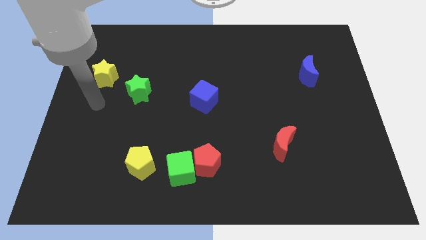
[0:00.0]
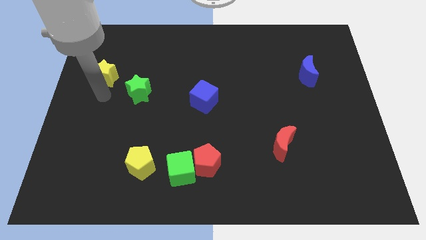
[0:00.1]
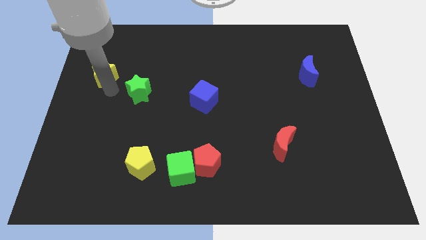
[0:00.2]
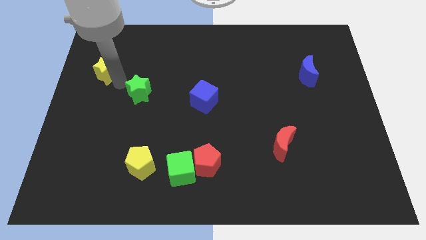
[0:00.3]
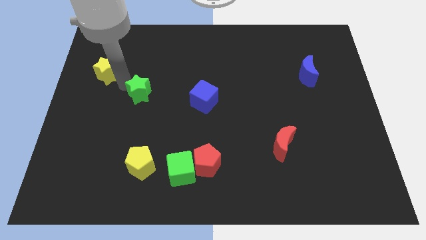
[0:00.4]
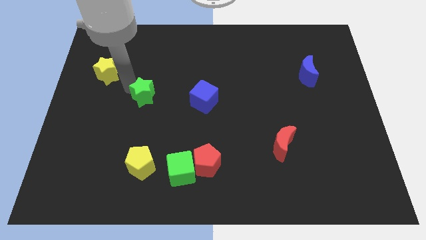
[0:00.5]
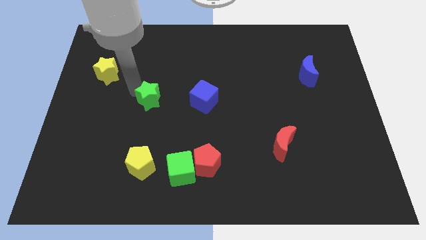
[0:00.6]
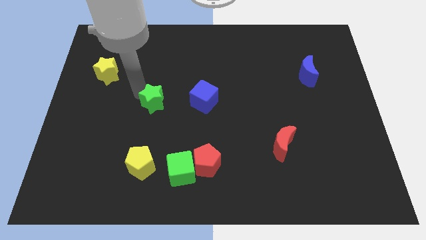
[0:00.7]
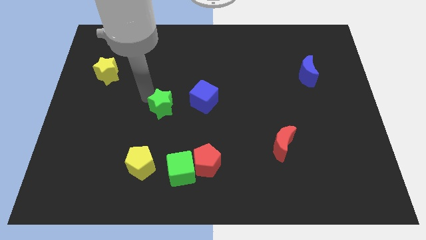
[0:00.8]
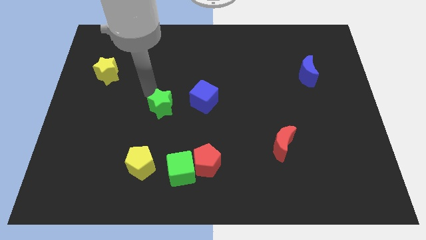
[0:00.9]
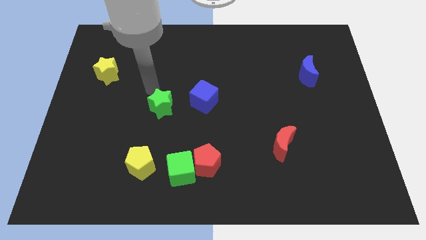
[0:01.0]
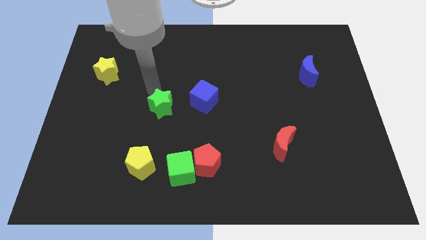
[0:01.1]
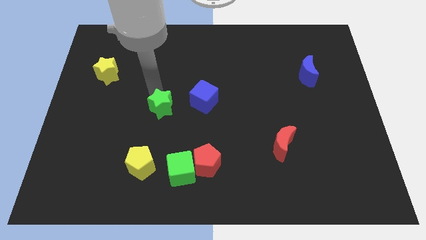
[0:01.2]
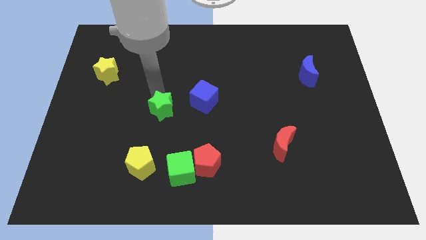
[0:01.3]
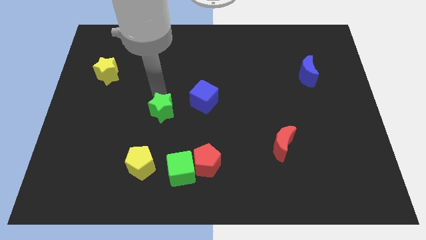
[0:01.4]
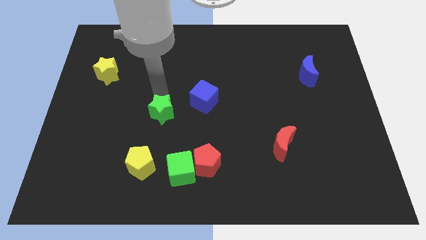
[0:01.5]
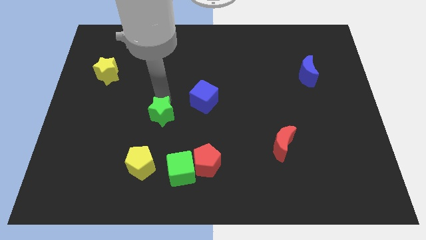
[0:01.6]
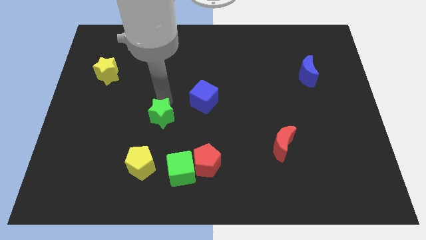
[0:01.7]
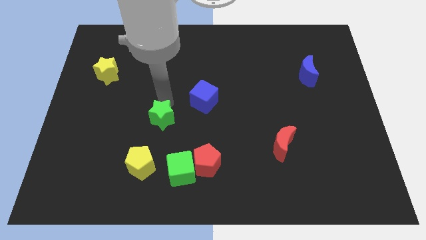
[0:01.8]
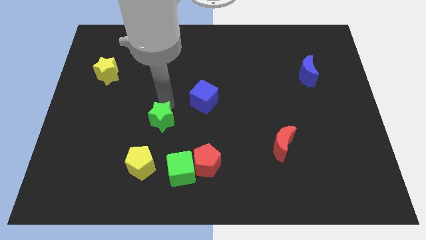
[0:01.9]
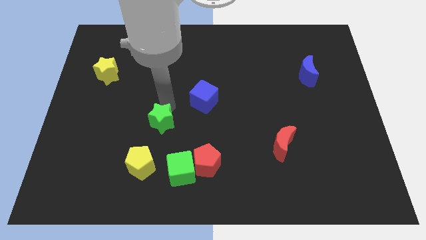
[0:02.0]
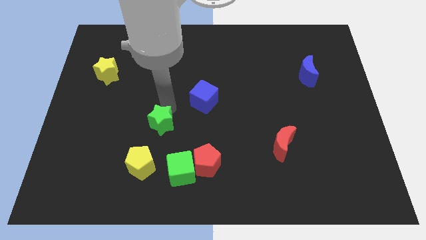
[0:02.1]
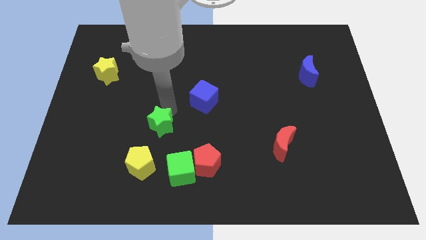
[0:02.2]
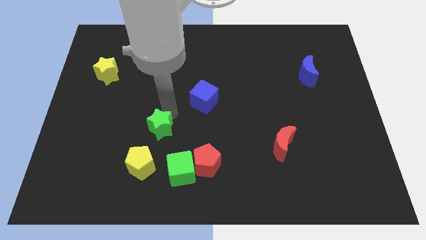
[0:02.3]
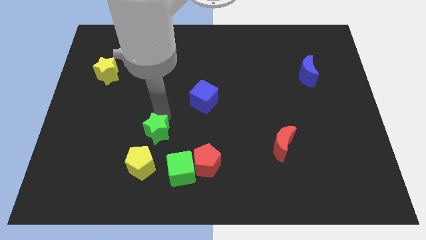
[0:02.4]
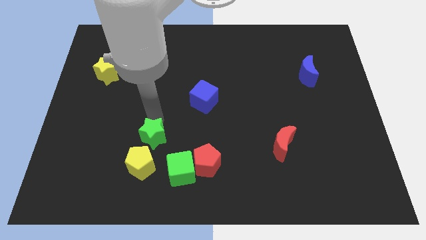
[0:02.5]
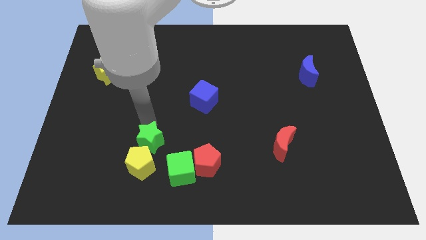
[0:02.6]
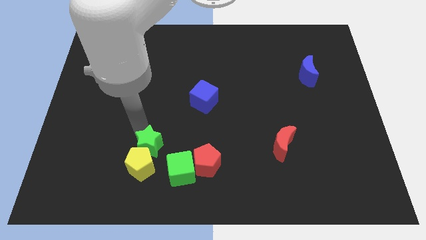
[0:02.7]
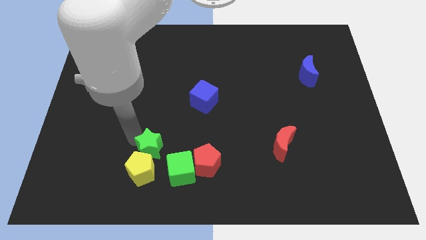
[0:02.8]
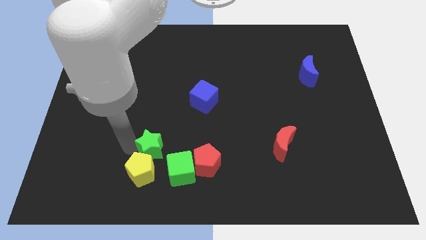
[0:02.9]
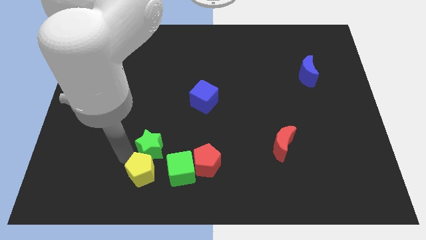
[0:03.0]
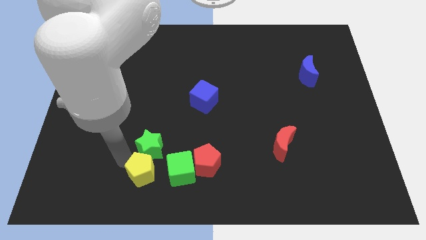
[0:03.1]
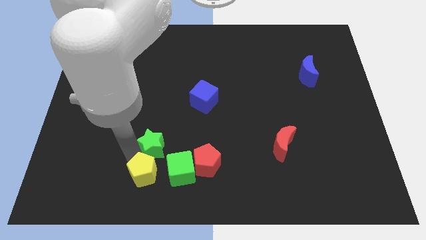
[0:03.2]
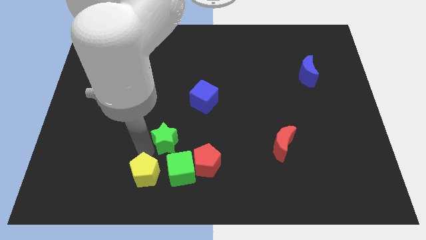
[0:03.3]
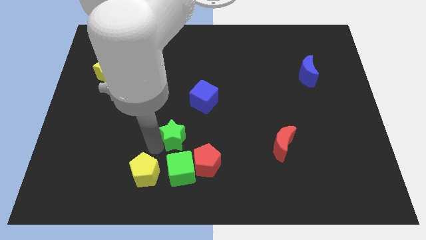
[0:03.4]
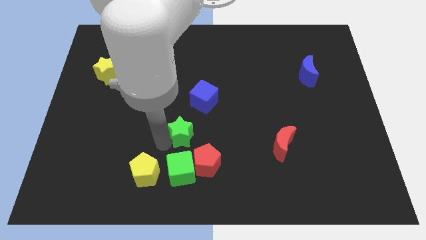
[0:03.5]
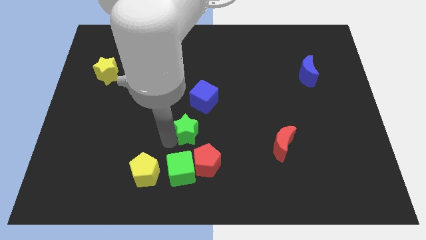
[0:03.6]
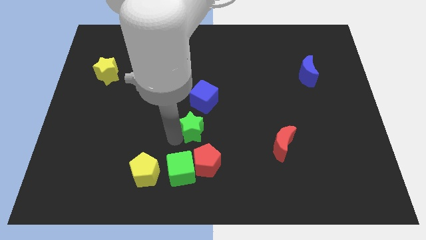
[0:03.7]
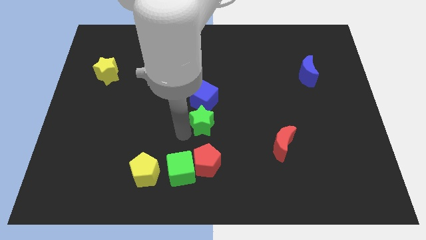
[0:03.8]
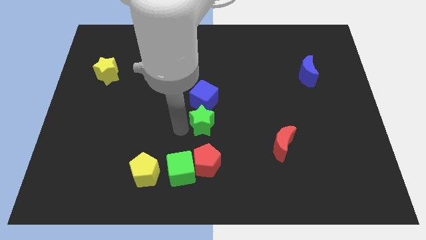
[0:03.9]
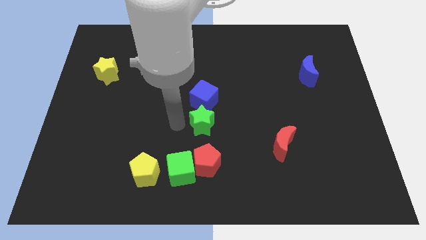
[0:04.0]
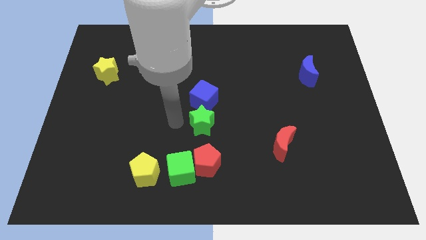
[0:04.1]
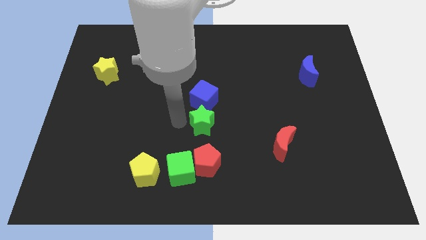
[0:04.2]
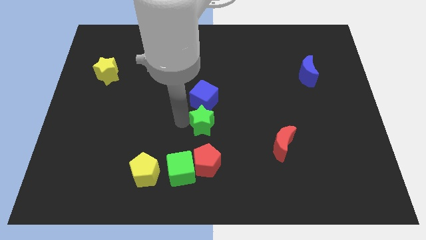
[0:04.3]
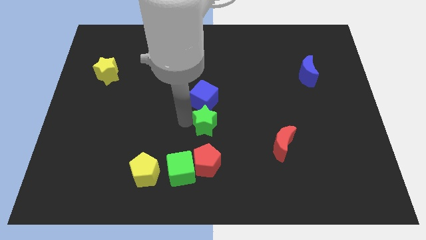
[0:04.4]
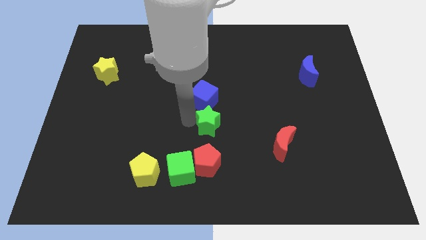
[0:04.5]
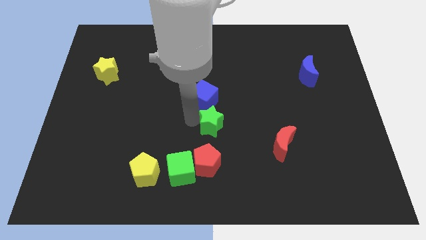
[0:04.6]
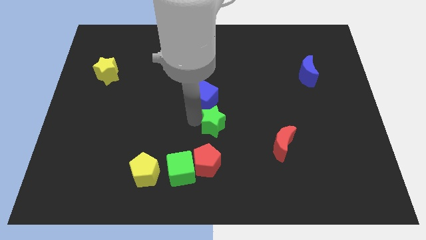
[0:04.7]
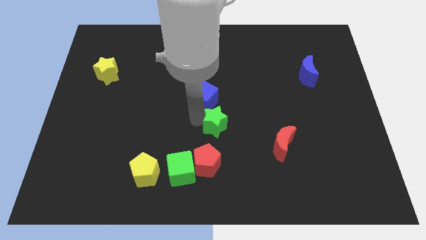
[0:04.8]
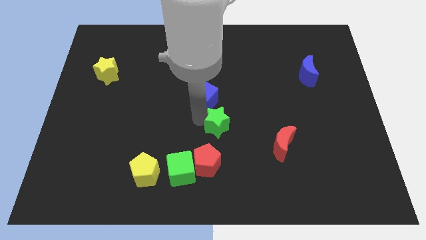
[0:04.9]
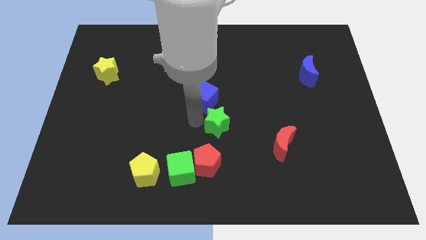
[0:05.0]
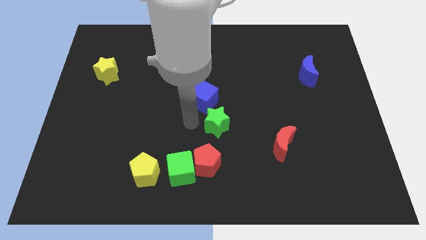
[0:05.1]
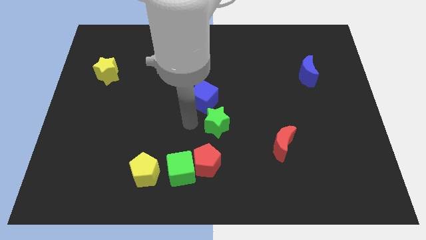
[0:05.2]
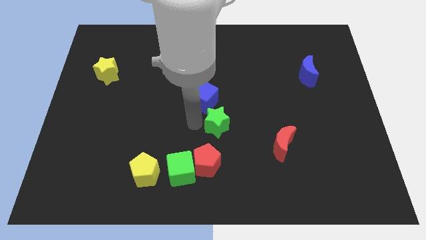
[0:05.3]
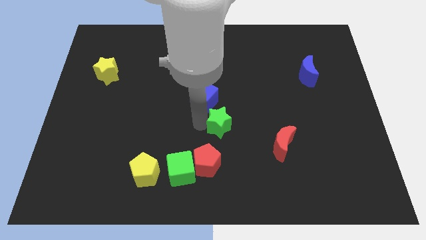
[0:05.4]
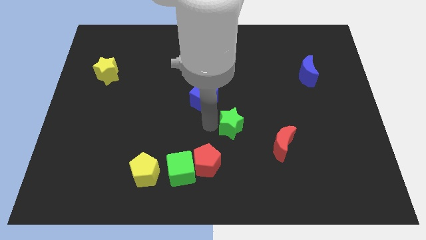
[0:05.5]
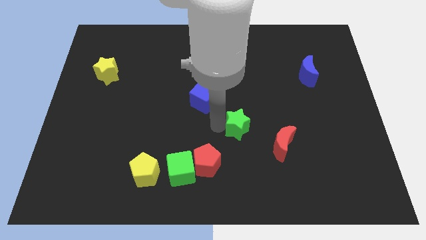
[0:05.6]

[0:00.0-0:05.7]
move the green star diagonally up and to the left of the red moon
